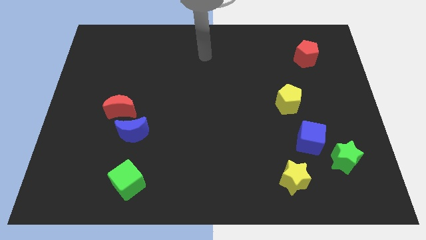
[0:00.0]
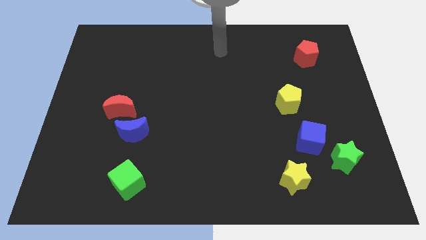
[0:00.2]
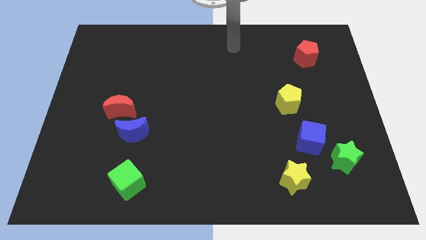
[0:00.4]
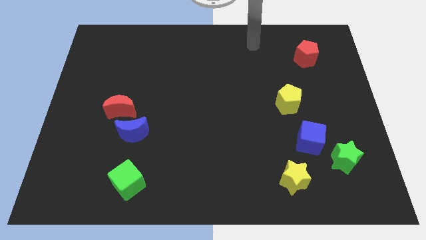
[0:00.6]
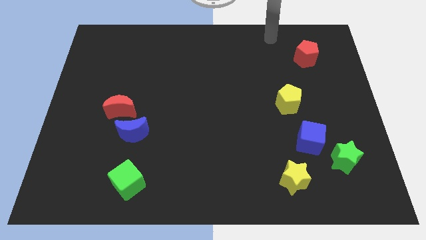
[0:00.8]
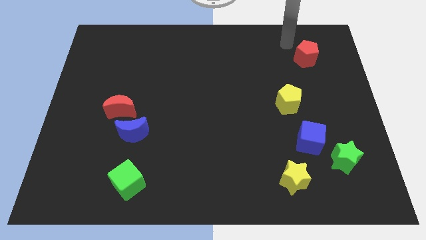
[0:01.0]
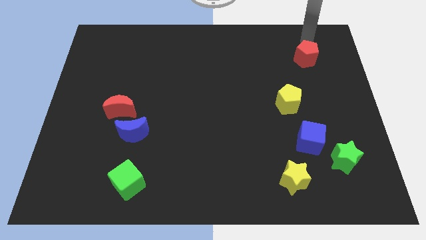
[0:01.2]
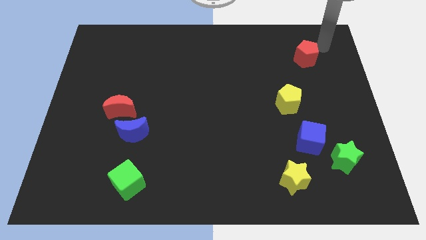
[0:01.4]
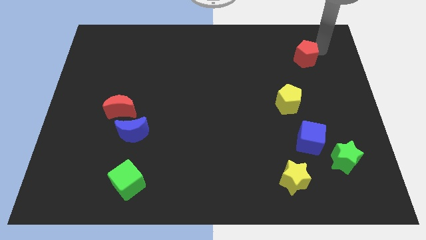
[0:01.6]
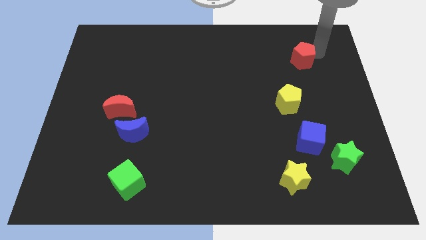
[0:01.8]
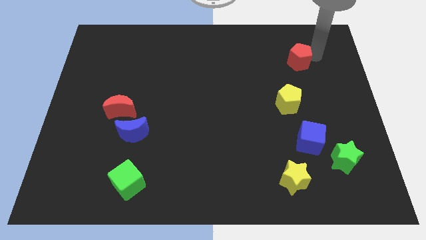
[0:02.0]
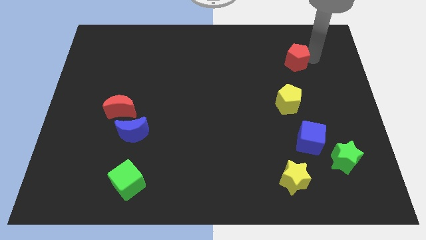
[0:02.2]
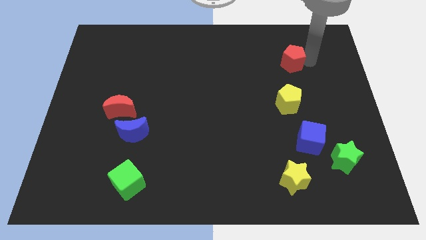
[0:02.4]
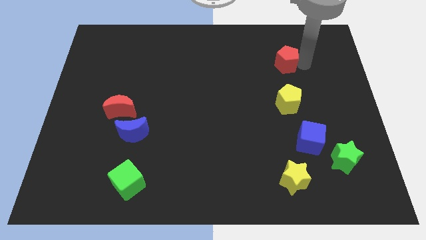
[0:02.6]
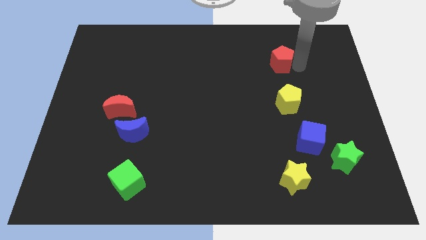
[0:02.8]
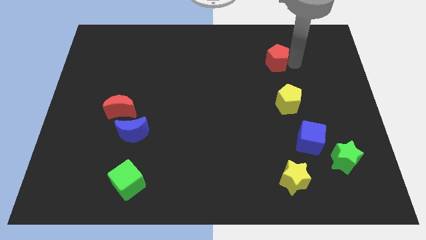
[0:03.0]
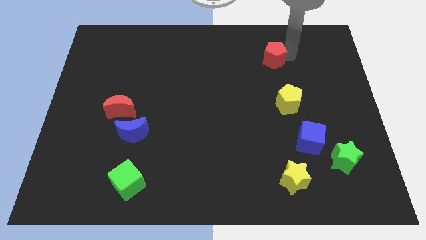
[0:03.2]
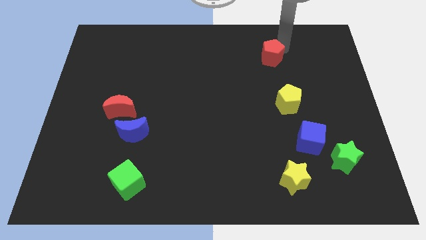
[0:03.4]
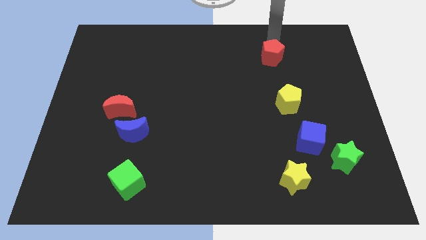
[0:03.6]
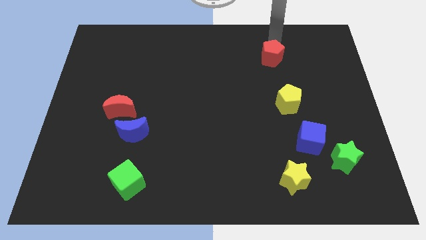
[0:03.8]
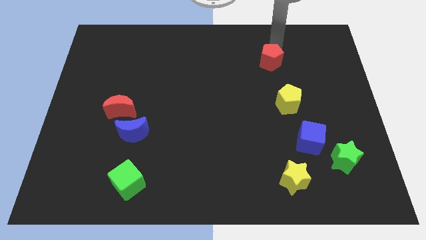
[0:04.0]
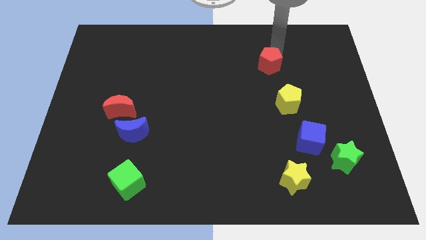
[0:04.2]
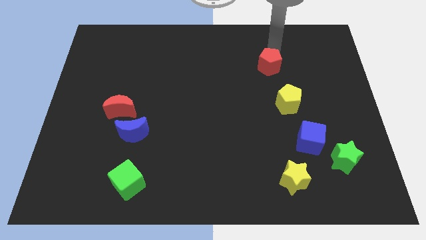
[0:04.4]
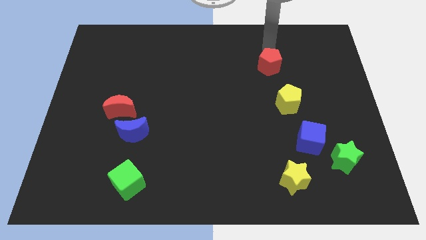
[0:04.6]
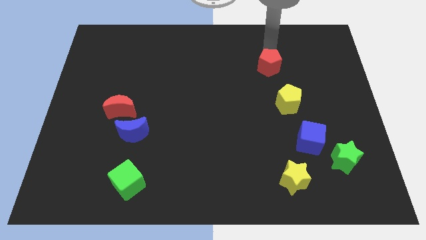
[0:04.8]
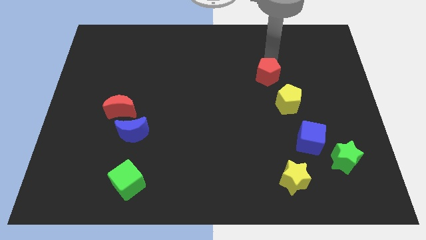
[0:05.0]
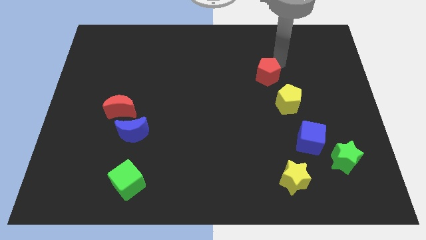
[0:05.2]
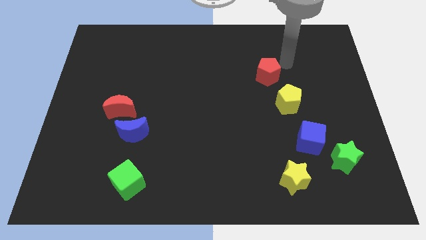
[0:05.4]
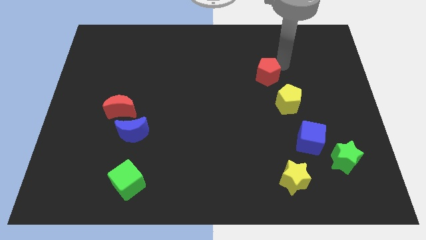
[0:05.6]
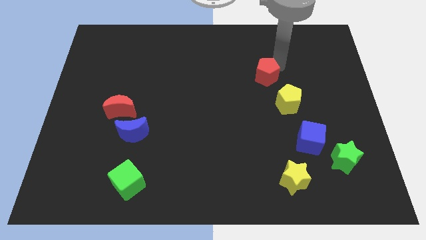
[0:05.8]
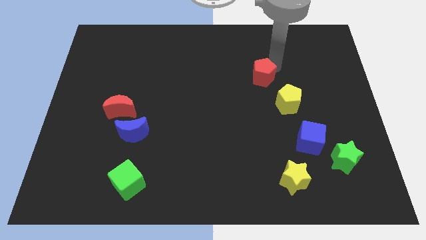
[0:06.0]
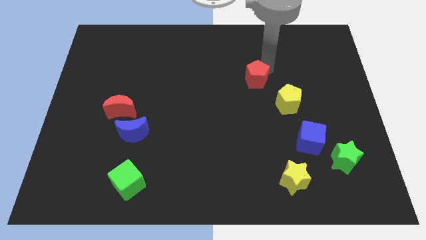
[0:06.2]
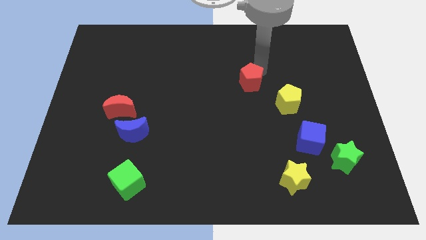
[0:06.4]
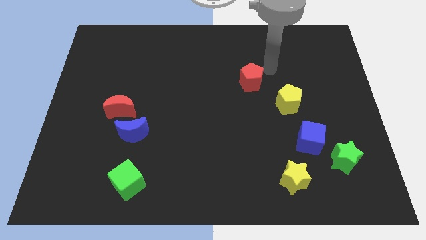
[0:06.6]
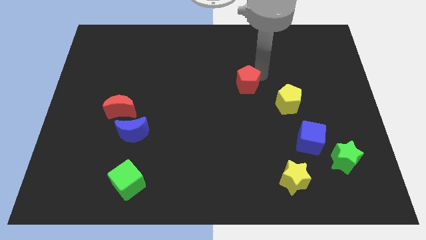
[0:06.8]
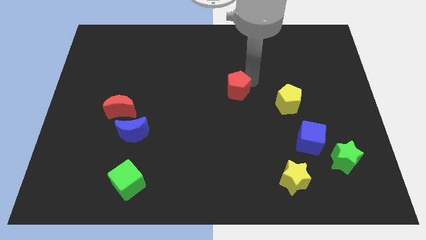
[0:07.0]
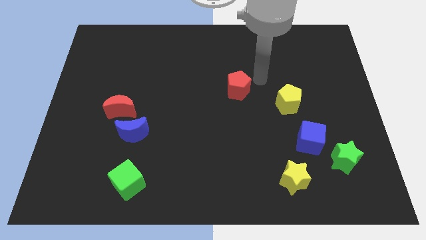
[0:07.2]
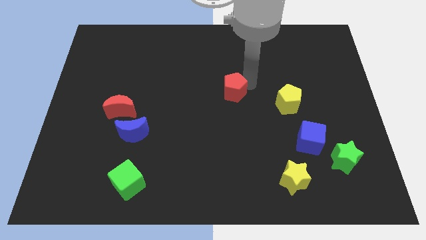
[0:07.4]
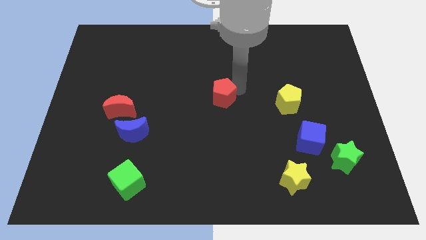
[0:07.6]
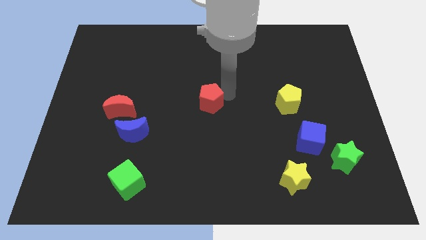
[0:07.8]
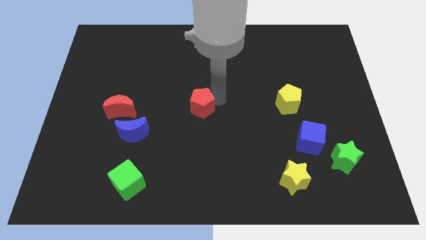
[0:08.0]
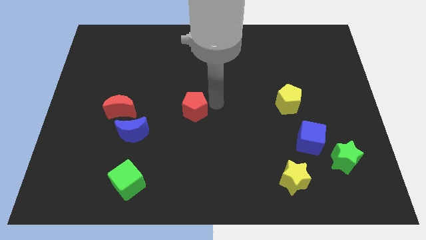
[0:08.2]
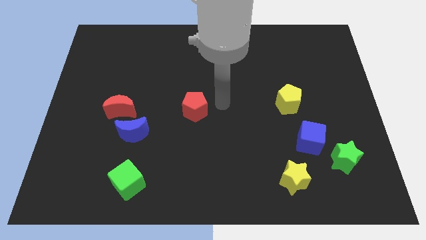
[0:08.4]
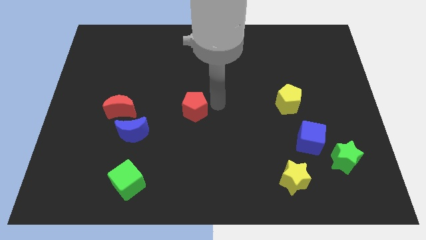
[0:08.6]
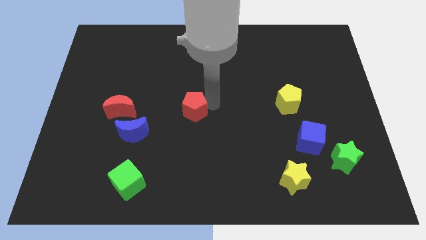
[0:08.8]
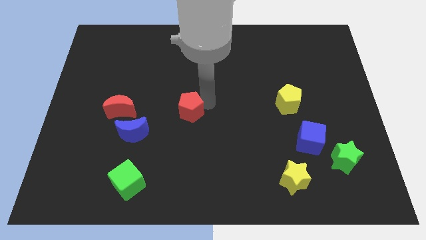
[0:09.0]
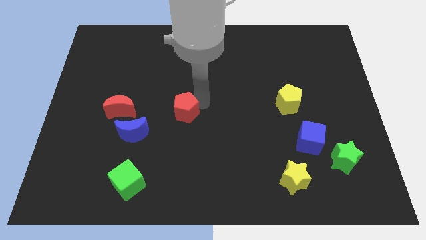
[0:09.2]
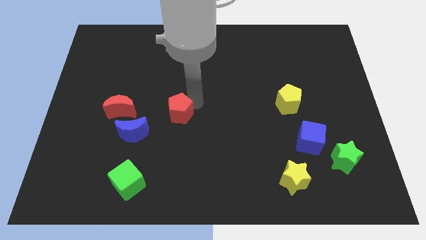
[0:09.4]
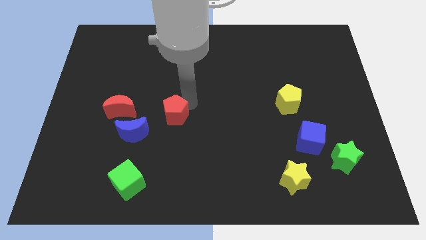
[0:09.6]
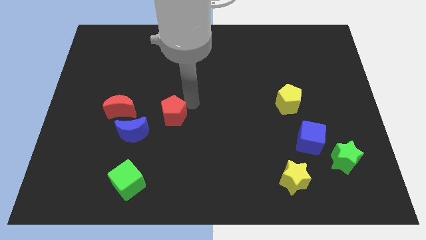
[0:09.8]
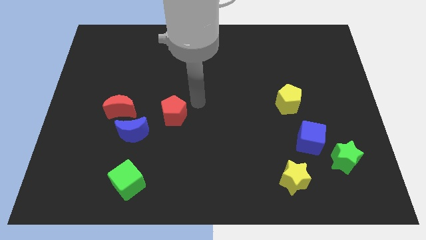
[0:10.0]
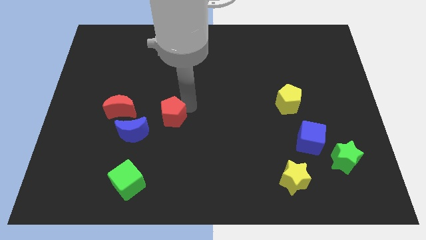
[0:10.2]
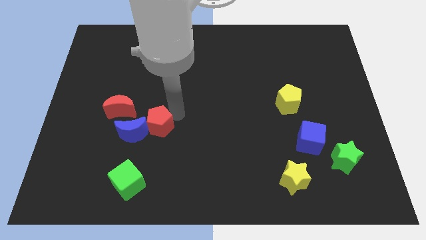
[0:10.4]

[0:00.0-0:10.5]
put the red pentagon towards the blue moon

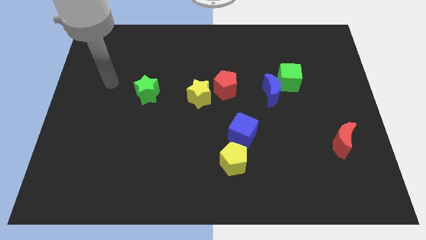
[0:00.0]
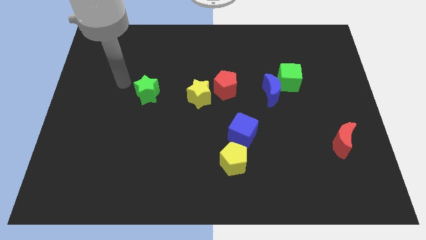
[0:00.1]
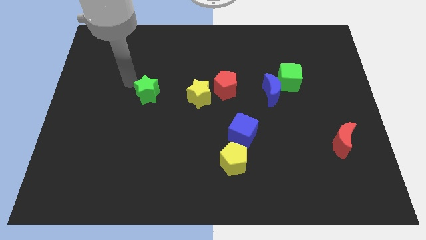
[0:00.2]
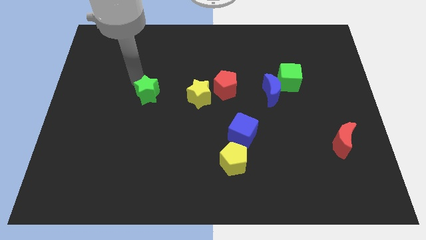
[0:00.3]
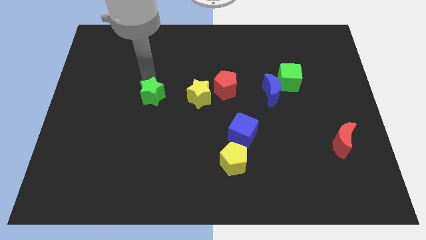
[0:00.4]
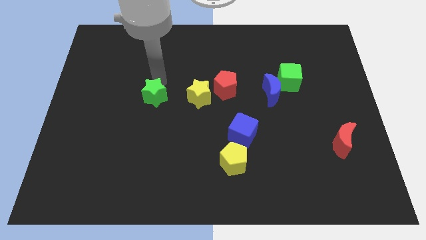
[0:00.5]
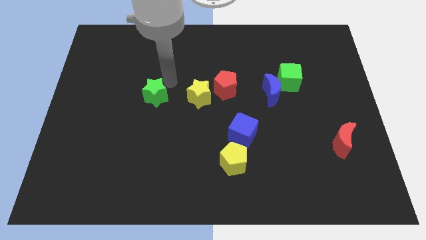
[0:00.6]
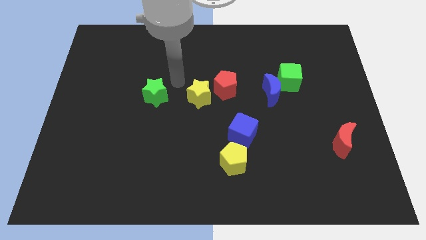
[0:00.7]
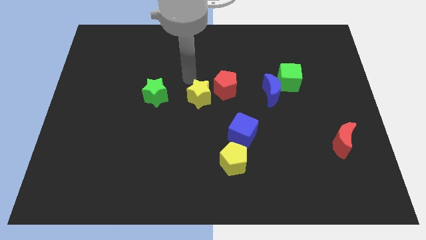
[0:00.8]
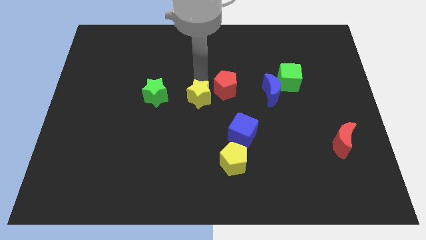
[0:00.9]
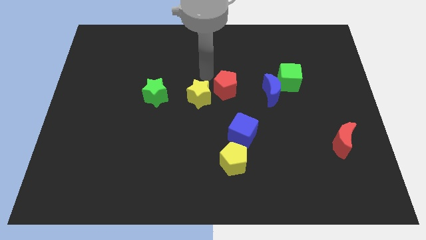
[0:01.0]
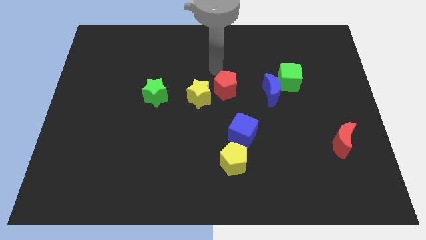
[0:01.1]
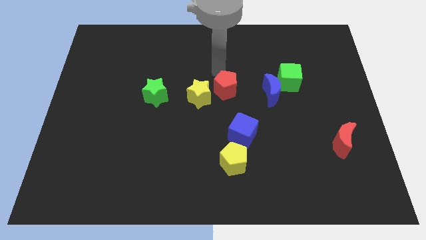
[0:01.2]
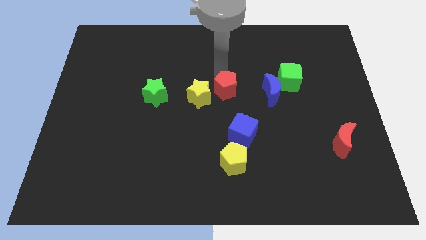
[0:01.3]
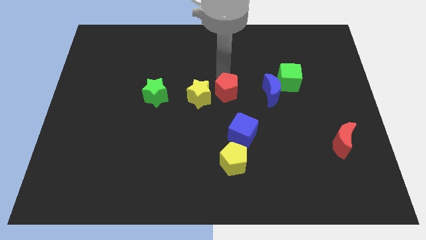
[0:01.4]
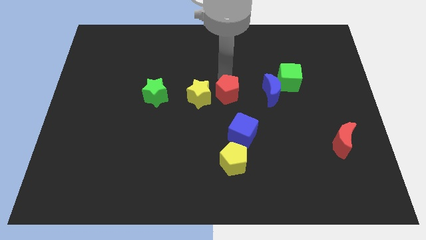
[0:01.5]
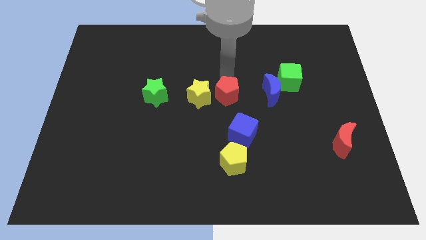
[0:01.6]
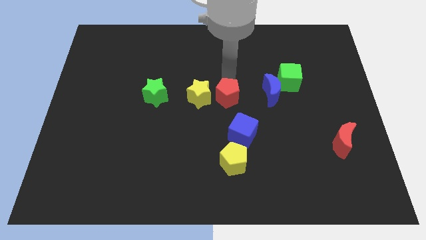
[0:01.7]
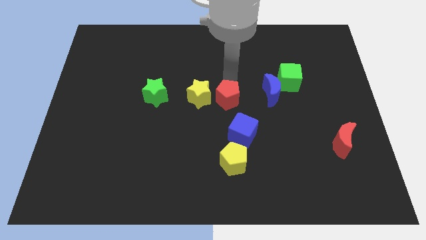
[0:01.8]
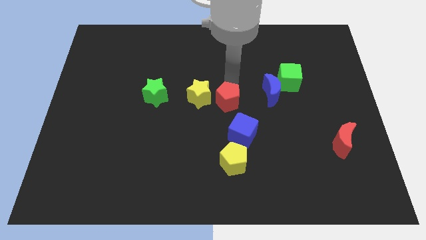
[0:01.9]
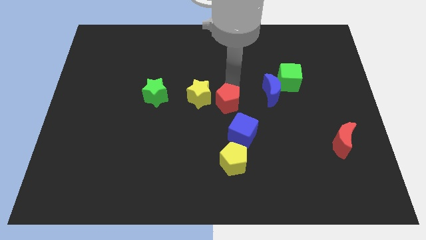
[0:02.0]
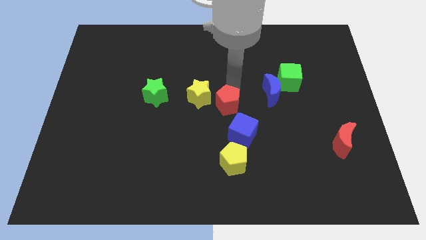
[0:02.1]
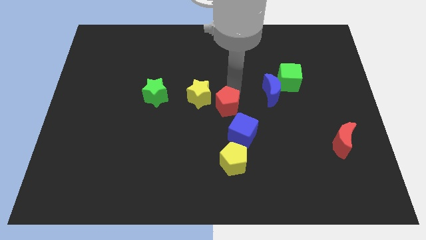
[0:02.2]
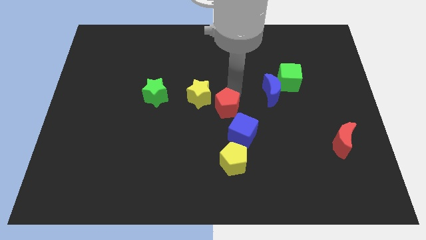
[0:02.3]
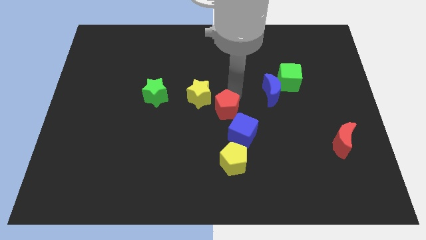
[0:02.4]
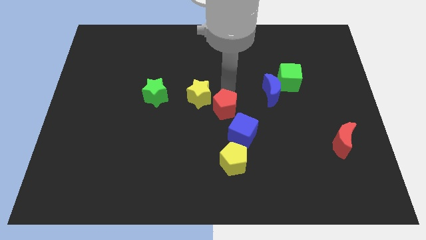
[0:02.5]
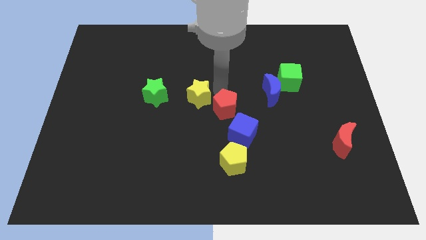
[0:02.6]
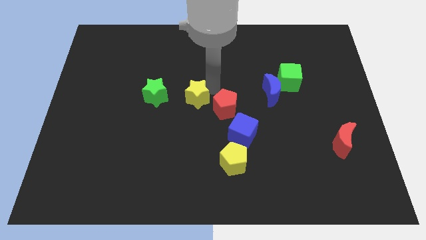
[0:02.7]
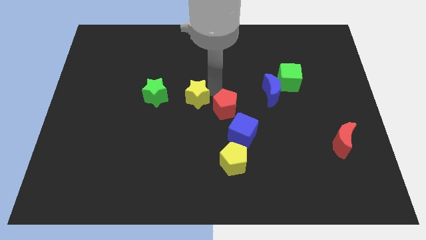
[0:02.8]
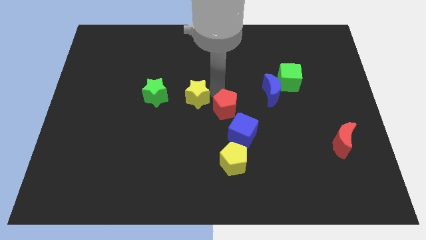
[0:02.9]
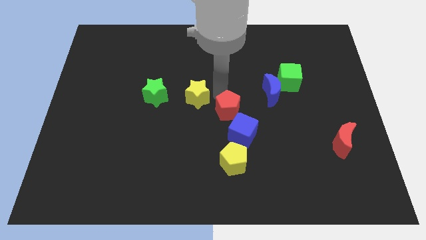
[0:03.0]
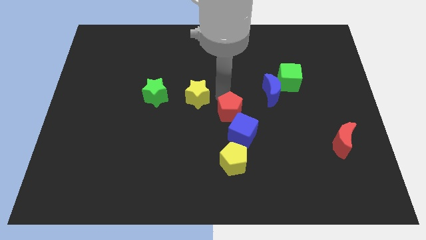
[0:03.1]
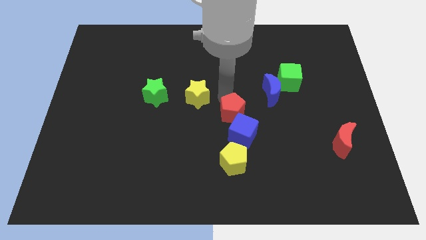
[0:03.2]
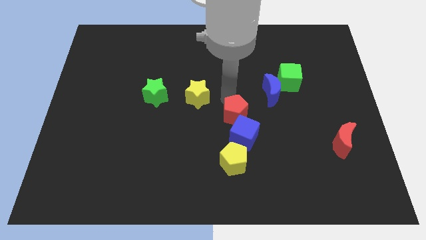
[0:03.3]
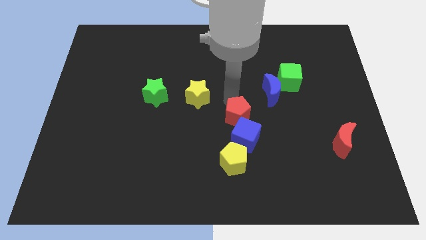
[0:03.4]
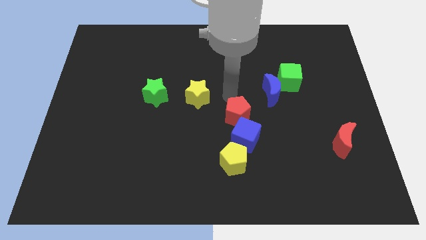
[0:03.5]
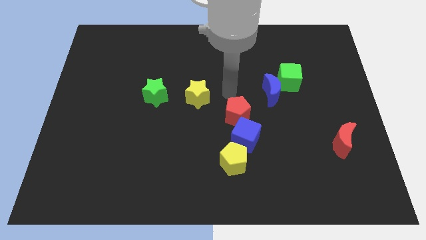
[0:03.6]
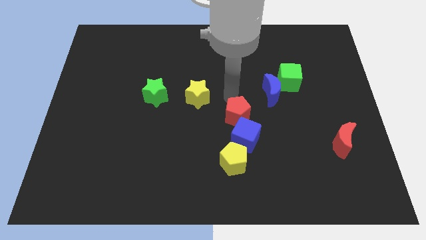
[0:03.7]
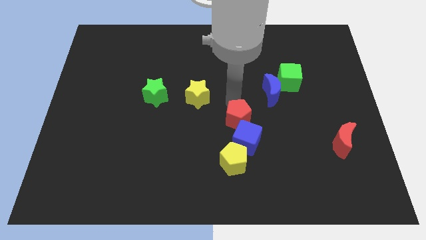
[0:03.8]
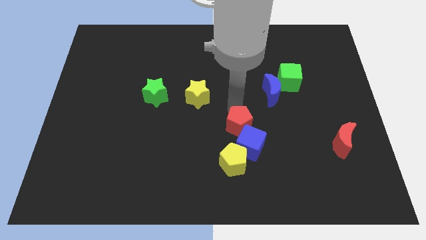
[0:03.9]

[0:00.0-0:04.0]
move the red pentagon close to the blue cube
